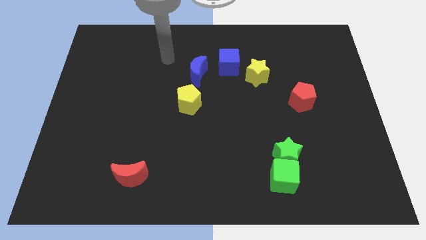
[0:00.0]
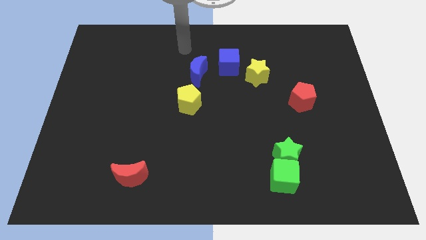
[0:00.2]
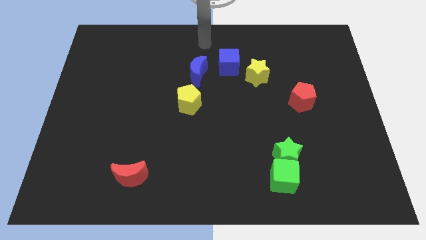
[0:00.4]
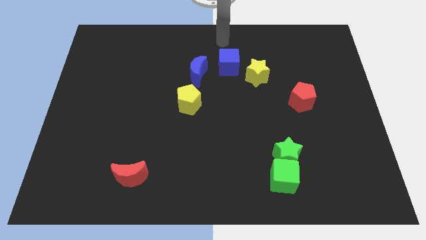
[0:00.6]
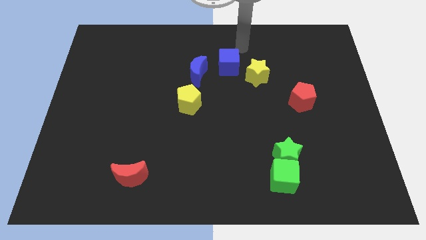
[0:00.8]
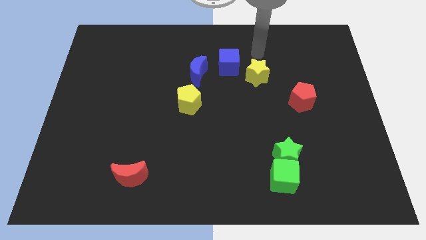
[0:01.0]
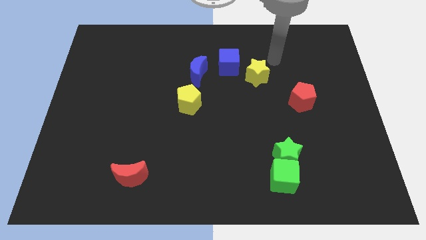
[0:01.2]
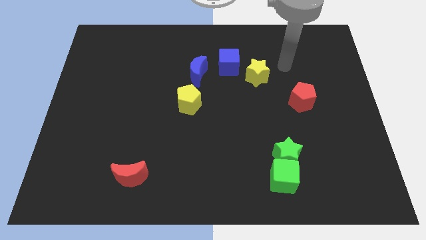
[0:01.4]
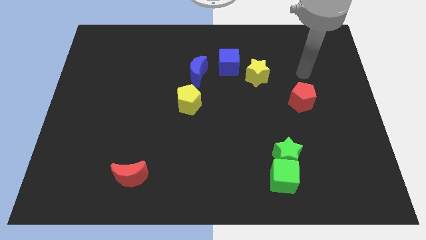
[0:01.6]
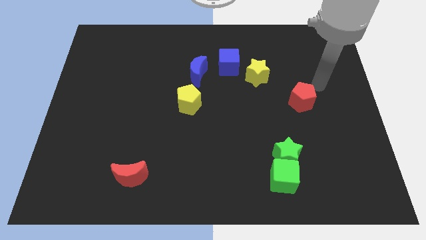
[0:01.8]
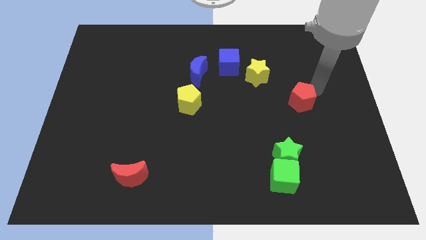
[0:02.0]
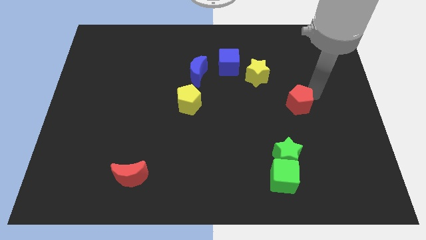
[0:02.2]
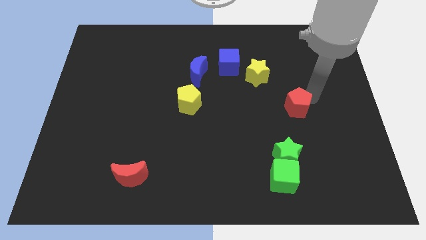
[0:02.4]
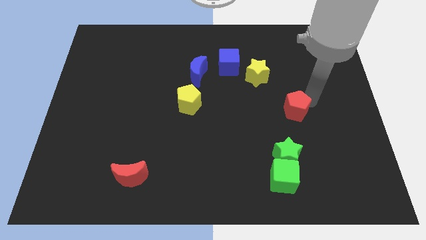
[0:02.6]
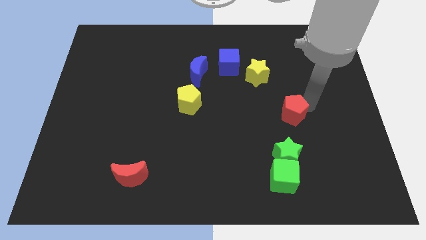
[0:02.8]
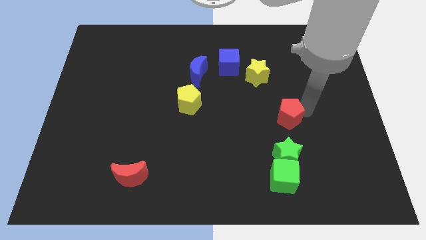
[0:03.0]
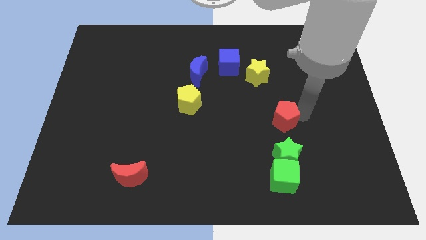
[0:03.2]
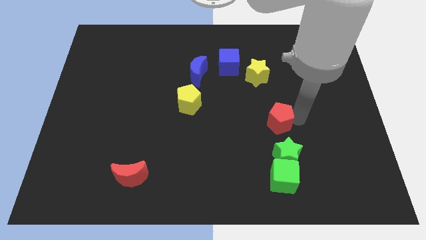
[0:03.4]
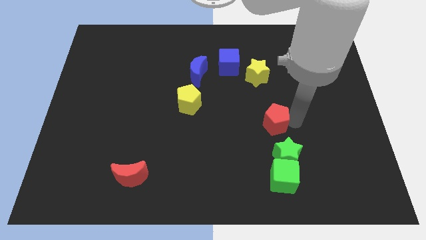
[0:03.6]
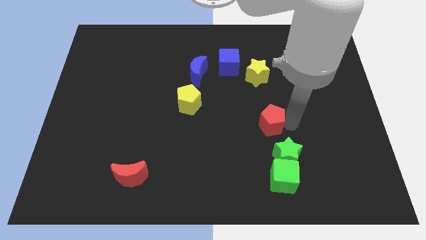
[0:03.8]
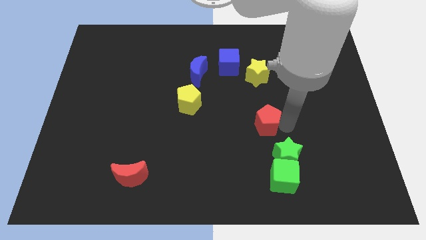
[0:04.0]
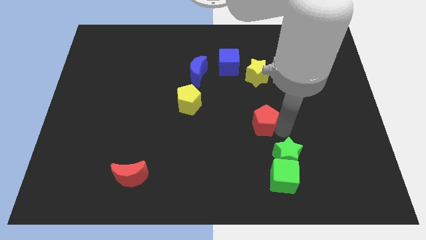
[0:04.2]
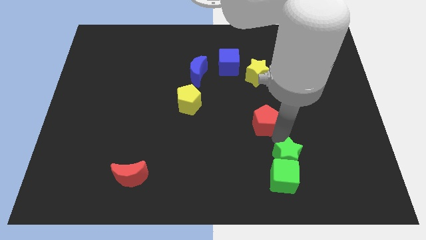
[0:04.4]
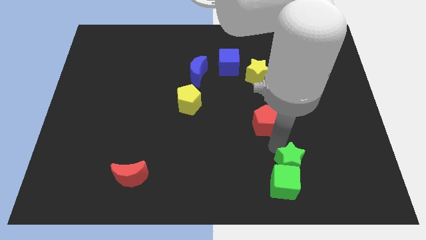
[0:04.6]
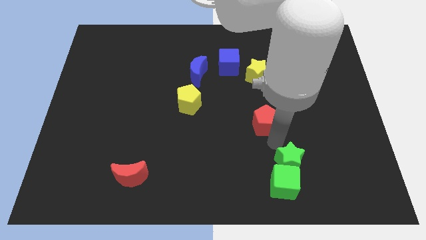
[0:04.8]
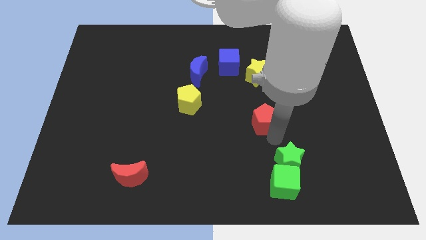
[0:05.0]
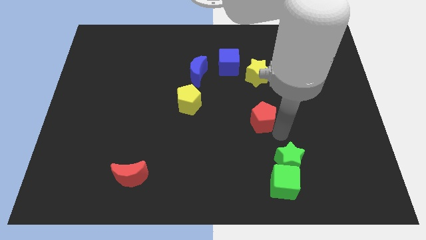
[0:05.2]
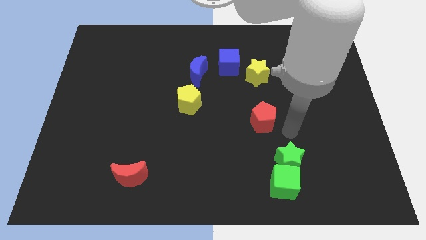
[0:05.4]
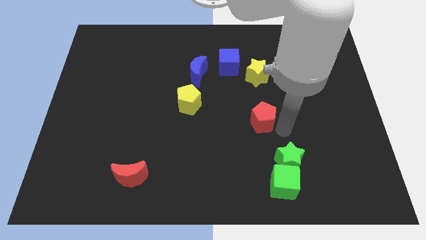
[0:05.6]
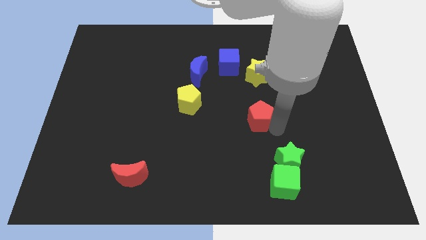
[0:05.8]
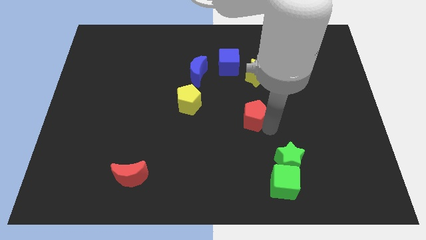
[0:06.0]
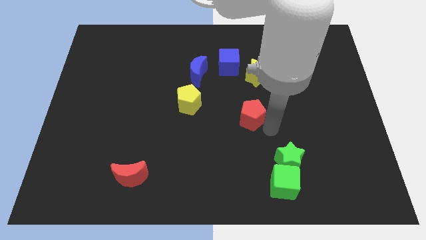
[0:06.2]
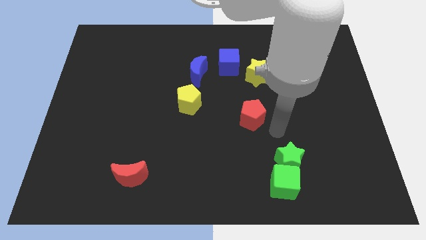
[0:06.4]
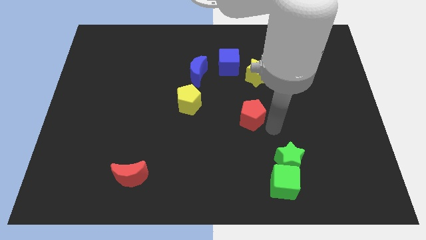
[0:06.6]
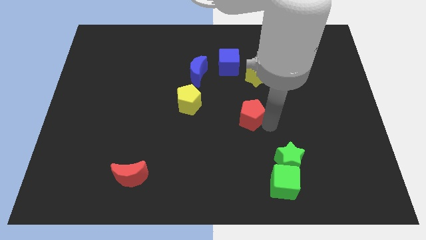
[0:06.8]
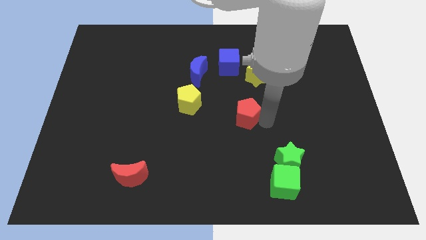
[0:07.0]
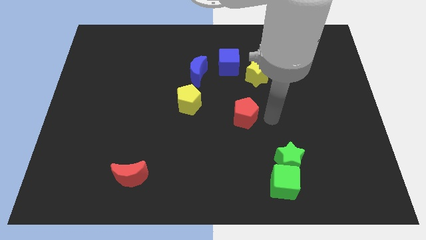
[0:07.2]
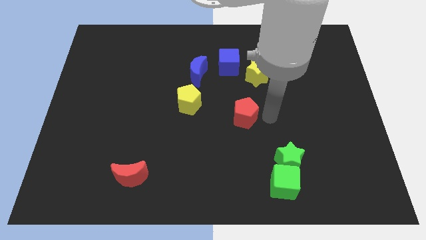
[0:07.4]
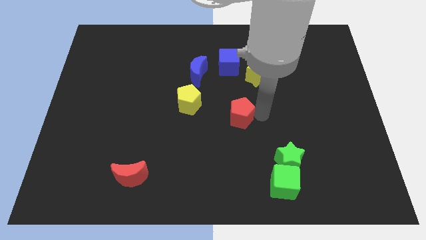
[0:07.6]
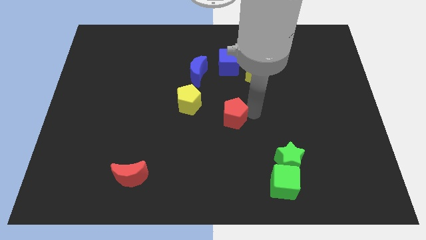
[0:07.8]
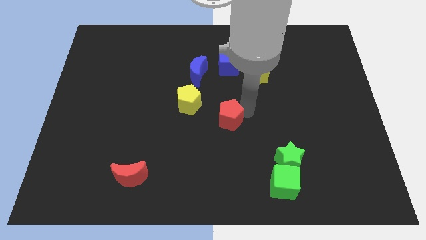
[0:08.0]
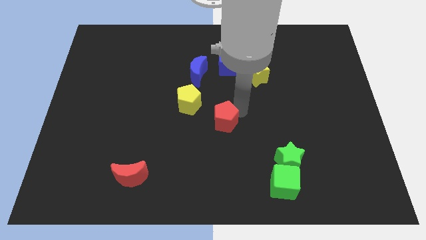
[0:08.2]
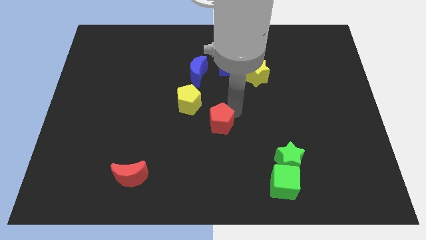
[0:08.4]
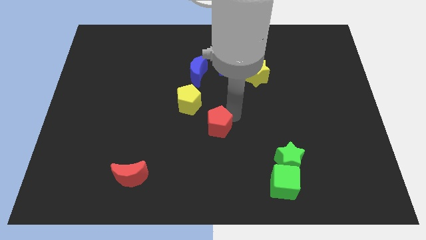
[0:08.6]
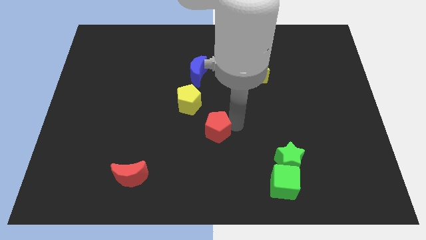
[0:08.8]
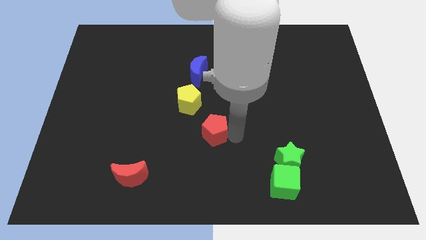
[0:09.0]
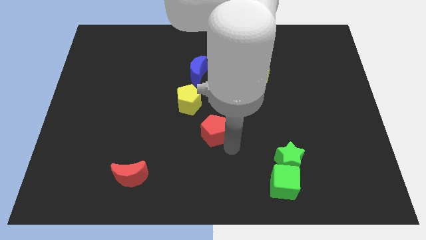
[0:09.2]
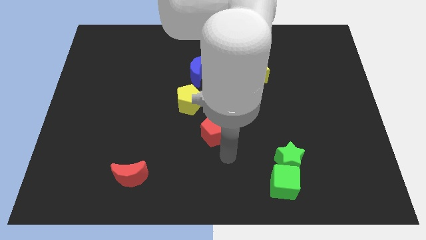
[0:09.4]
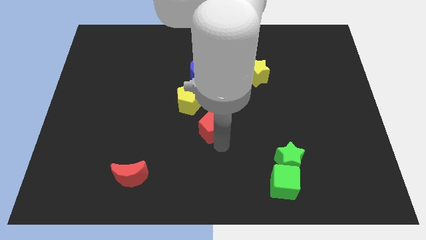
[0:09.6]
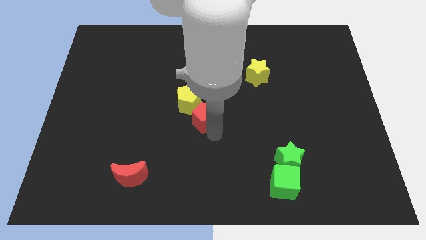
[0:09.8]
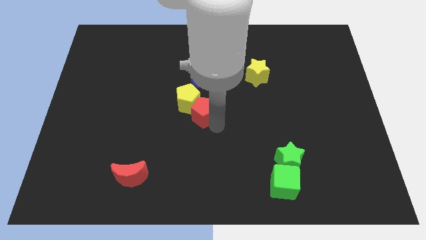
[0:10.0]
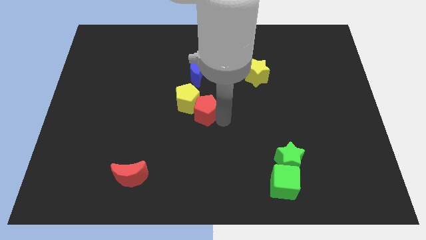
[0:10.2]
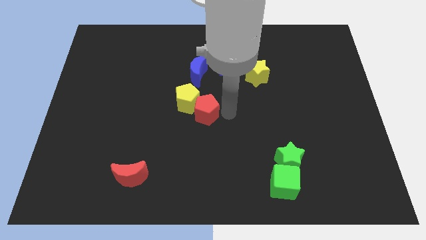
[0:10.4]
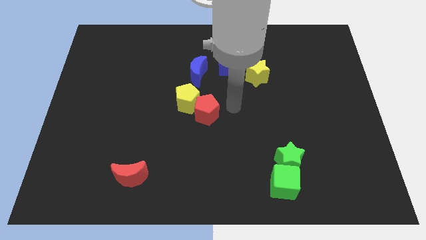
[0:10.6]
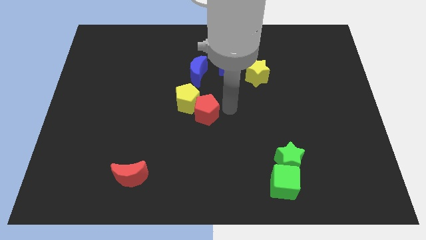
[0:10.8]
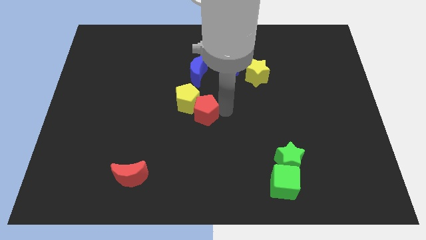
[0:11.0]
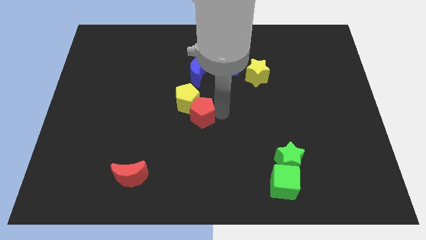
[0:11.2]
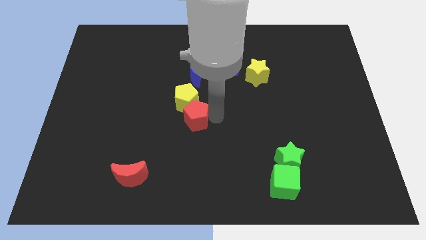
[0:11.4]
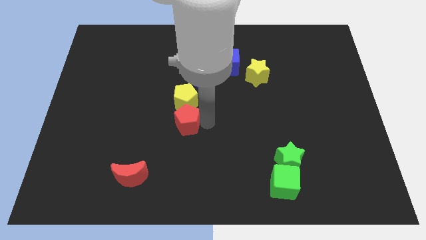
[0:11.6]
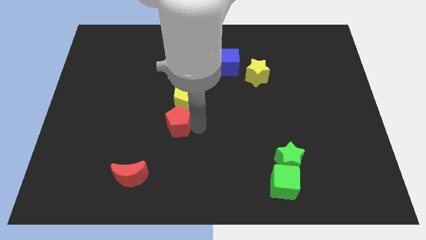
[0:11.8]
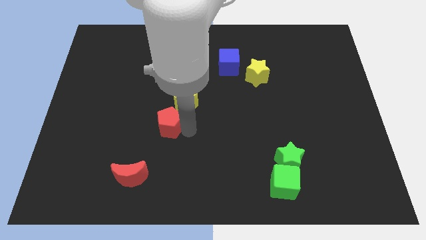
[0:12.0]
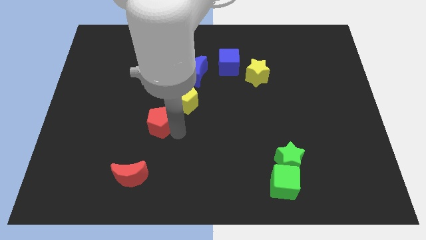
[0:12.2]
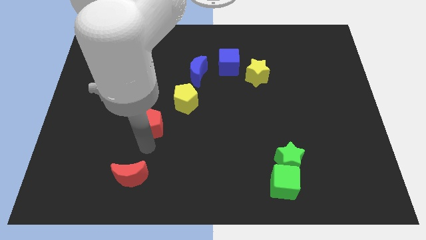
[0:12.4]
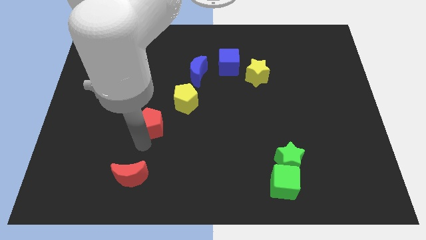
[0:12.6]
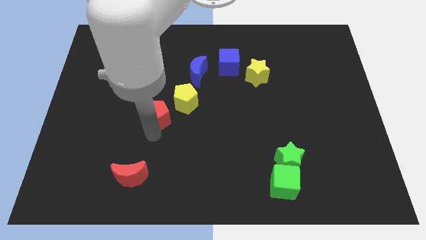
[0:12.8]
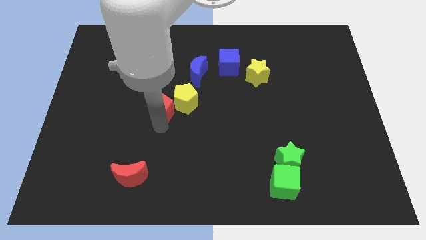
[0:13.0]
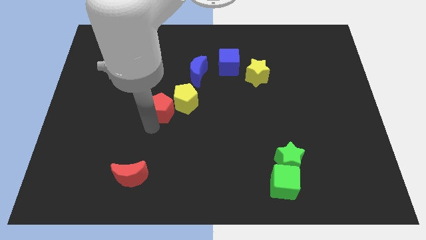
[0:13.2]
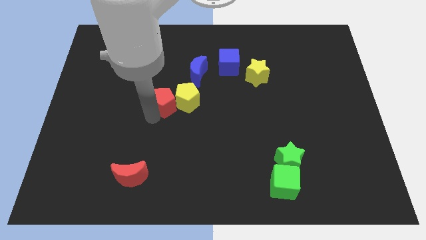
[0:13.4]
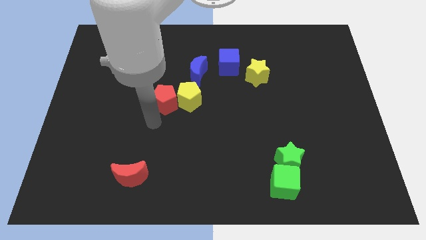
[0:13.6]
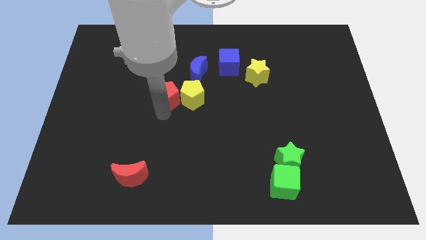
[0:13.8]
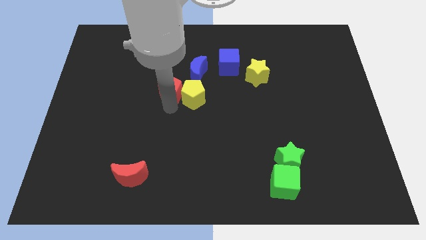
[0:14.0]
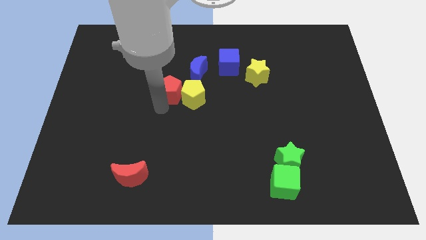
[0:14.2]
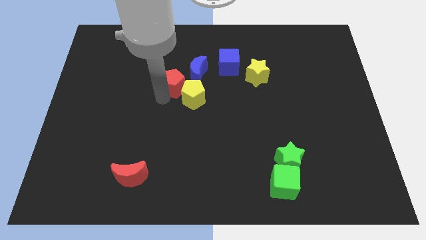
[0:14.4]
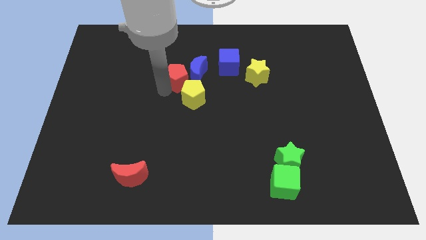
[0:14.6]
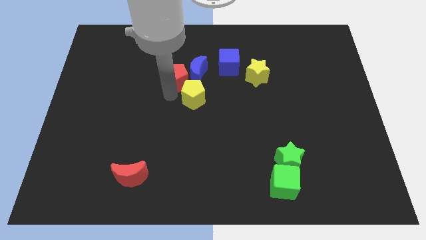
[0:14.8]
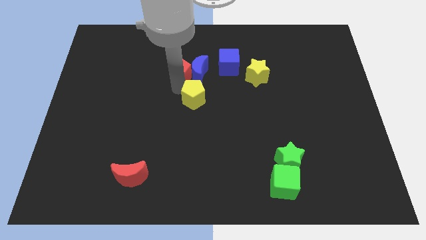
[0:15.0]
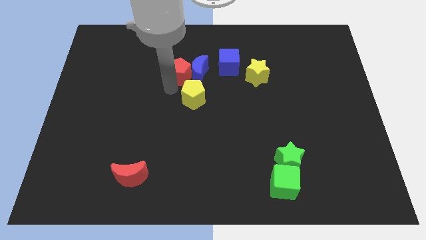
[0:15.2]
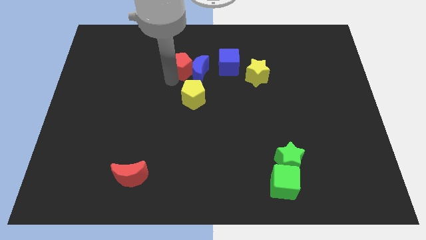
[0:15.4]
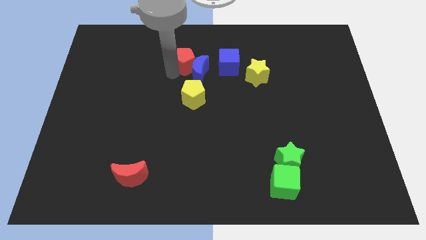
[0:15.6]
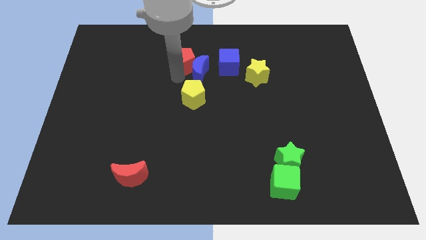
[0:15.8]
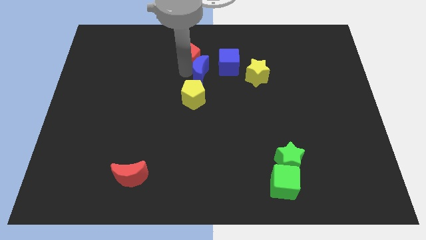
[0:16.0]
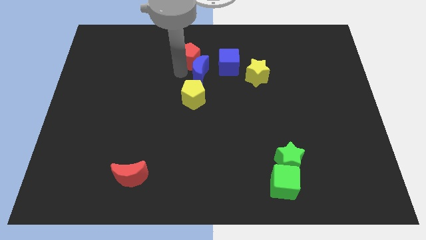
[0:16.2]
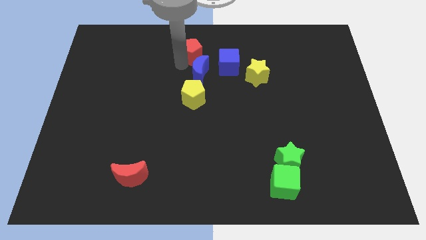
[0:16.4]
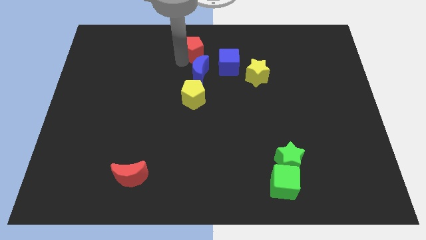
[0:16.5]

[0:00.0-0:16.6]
move the red pentagon to the towards your base
